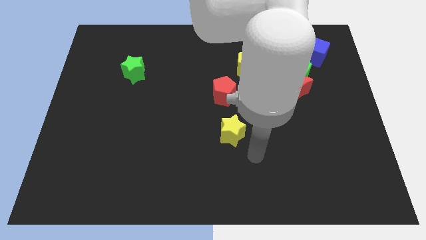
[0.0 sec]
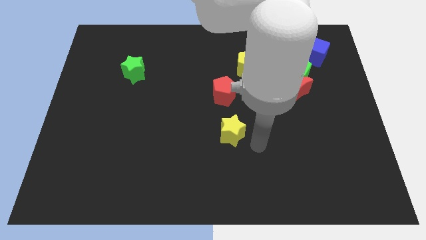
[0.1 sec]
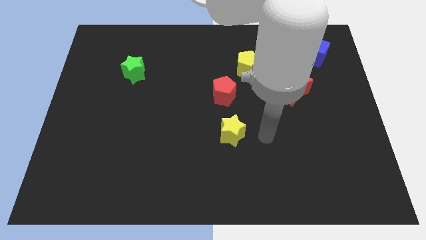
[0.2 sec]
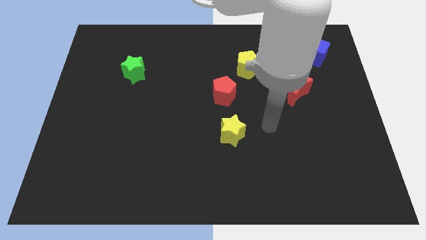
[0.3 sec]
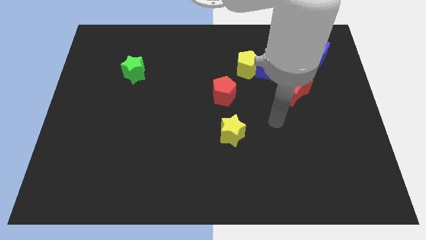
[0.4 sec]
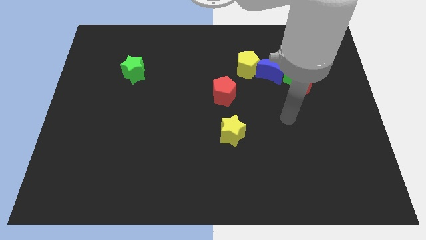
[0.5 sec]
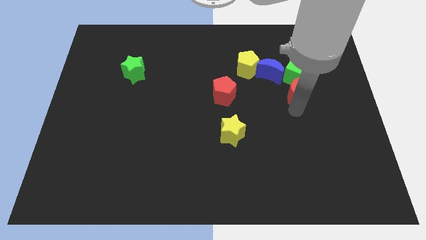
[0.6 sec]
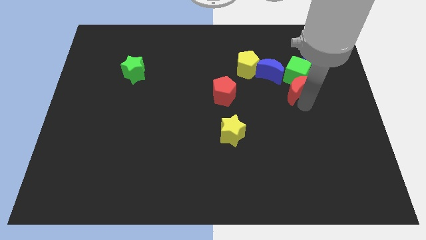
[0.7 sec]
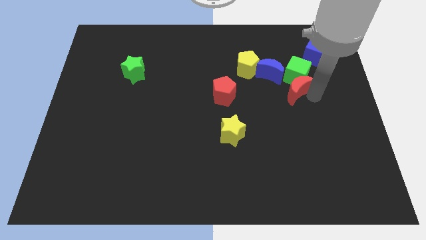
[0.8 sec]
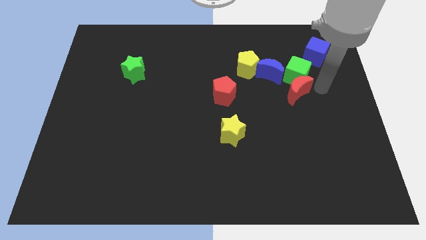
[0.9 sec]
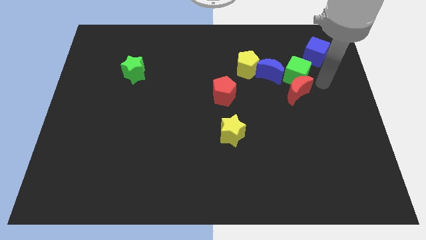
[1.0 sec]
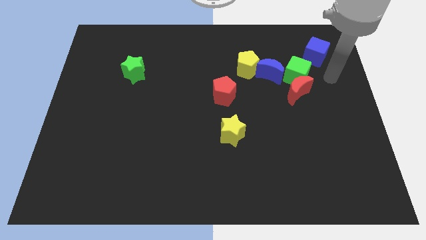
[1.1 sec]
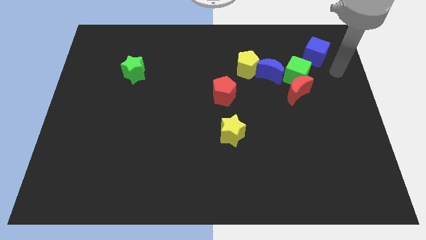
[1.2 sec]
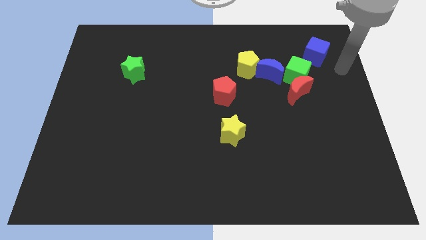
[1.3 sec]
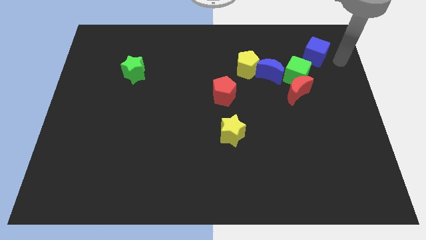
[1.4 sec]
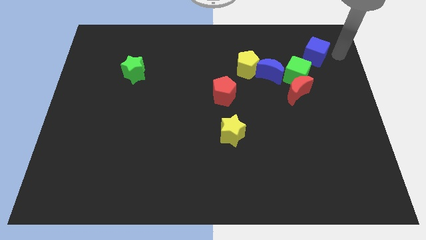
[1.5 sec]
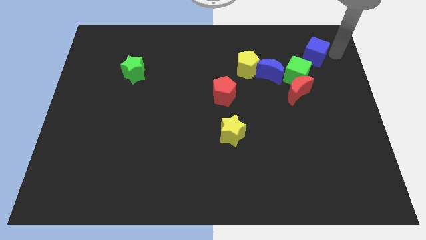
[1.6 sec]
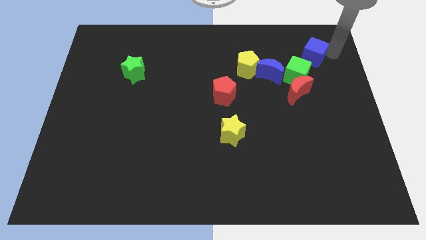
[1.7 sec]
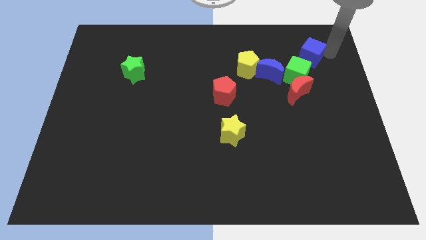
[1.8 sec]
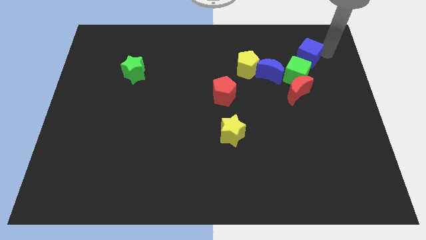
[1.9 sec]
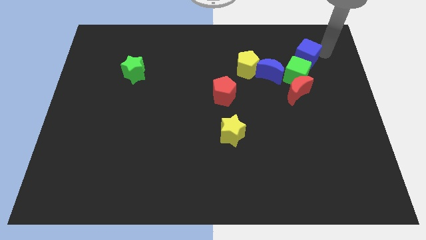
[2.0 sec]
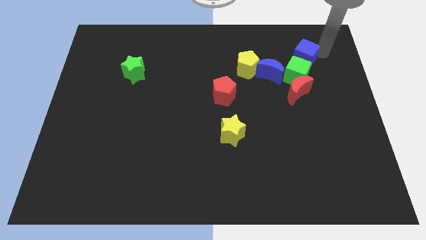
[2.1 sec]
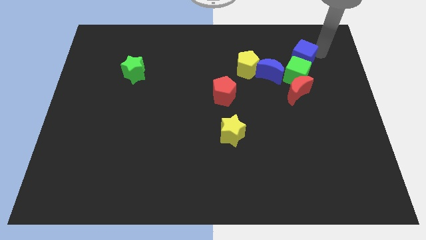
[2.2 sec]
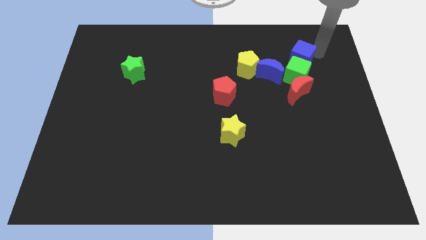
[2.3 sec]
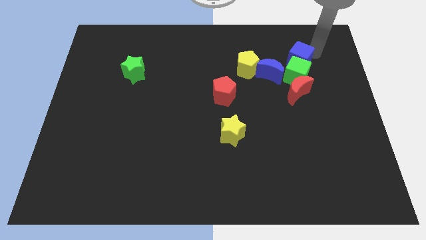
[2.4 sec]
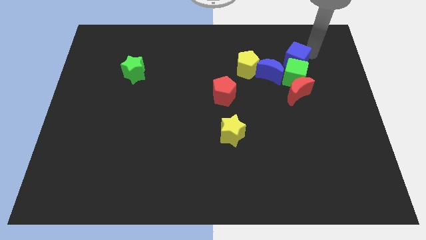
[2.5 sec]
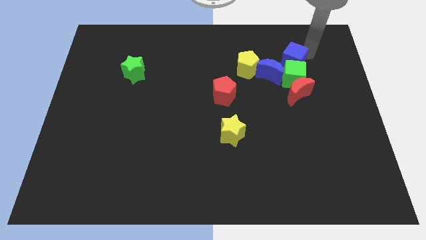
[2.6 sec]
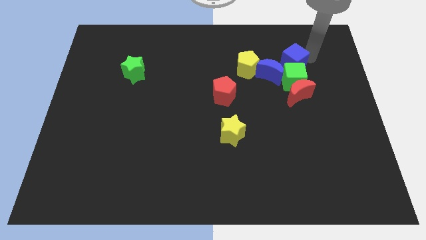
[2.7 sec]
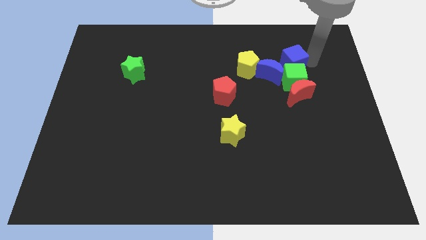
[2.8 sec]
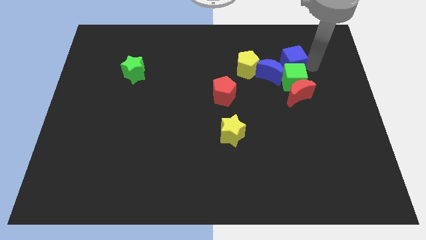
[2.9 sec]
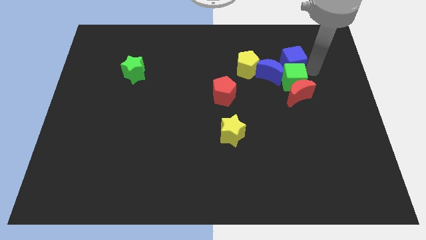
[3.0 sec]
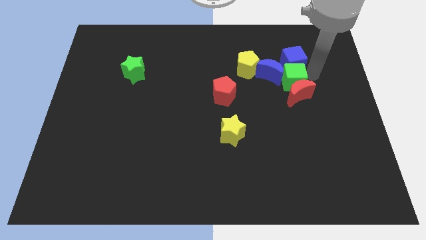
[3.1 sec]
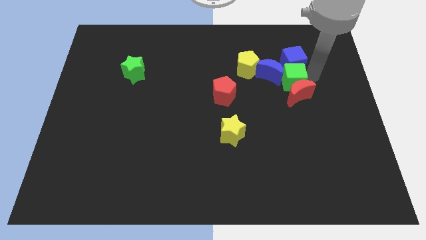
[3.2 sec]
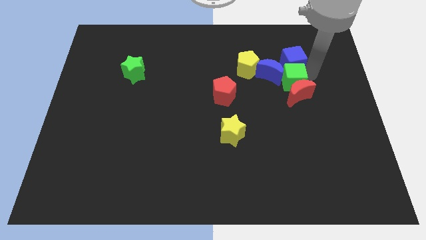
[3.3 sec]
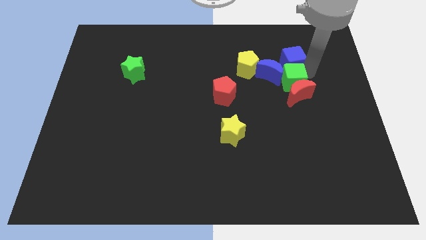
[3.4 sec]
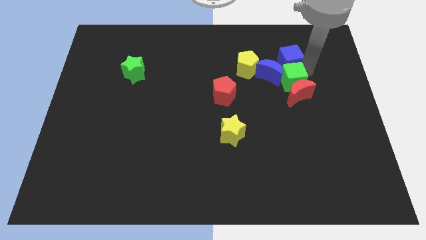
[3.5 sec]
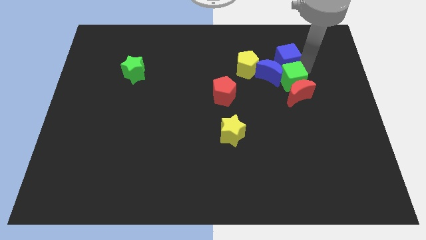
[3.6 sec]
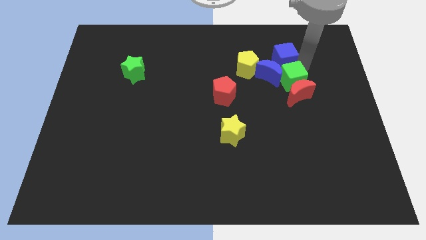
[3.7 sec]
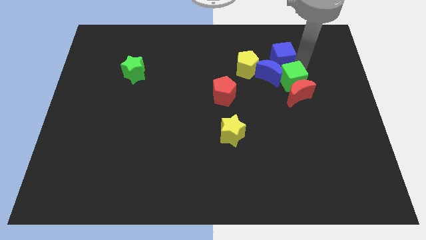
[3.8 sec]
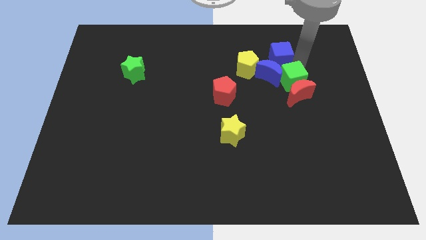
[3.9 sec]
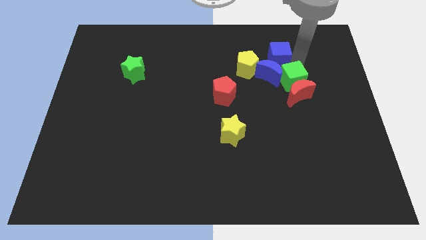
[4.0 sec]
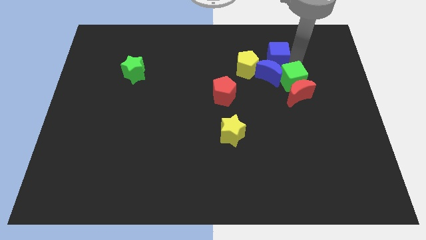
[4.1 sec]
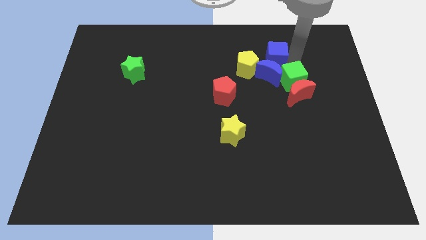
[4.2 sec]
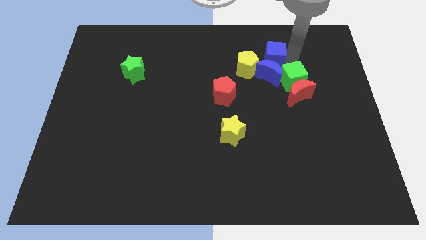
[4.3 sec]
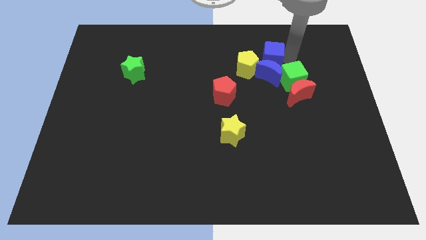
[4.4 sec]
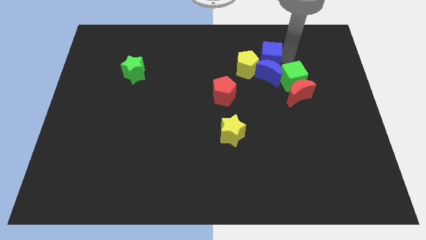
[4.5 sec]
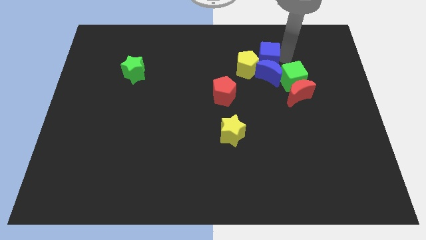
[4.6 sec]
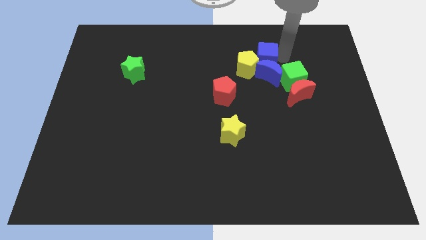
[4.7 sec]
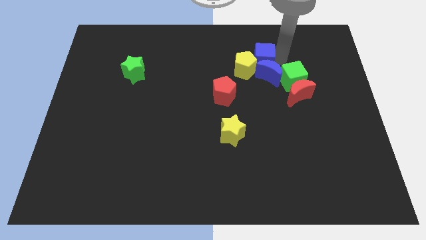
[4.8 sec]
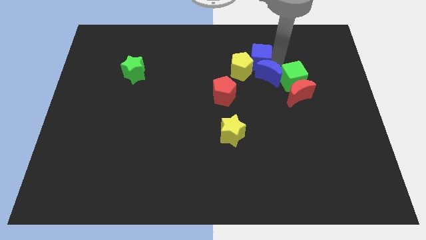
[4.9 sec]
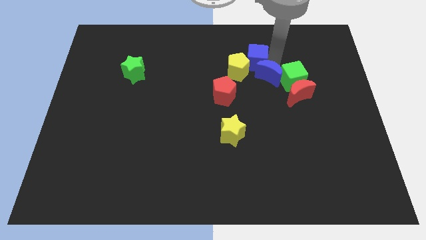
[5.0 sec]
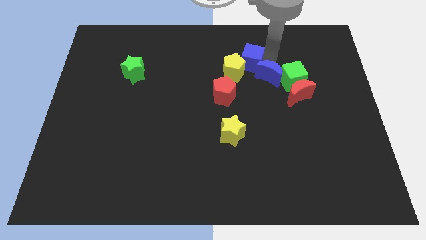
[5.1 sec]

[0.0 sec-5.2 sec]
slide the blue cube just left of the blue moon

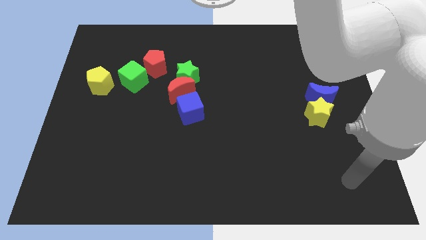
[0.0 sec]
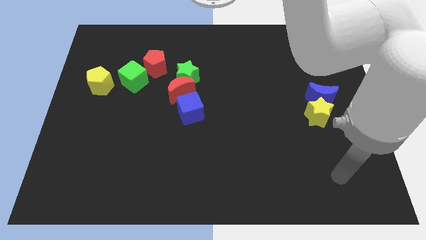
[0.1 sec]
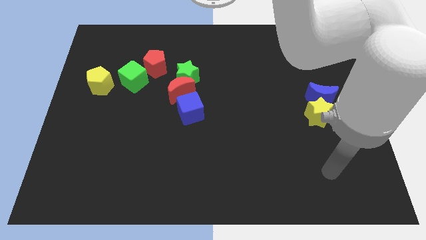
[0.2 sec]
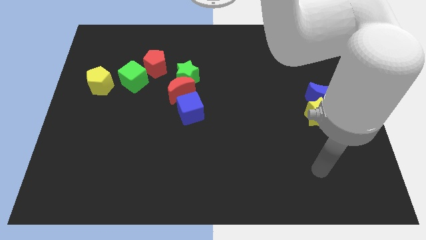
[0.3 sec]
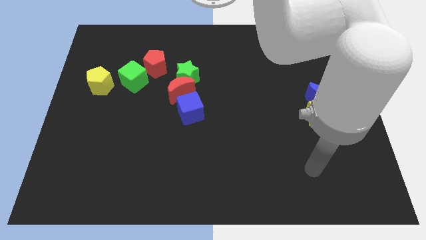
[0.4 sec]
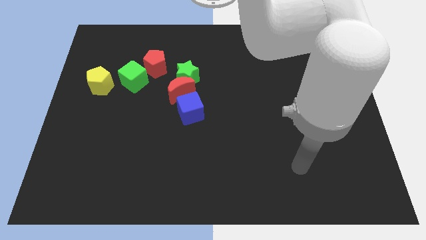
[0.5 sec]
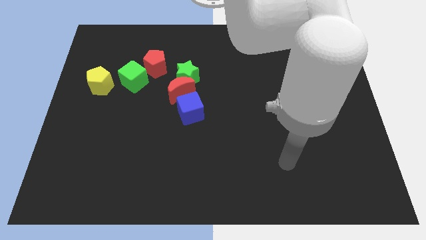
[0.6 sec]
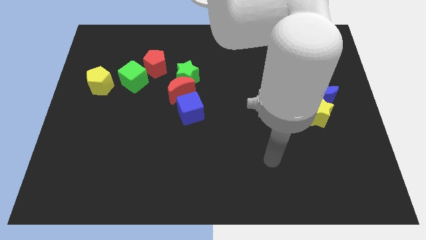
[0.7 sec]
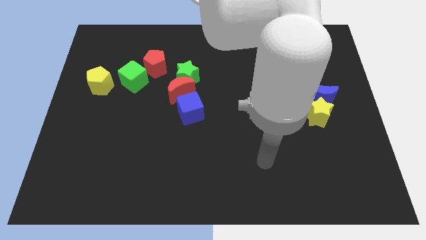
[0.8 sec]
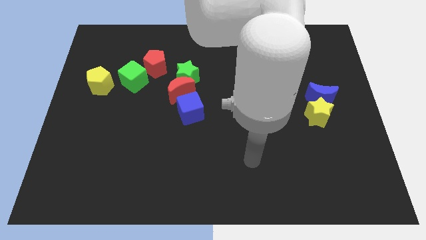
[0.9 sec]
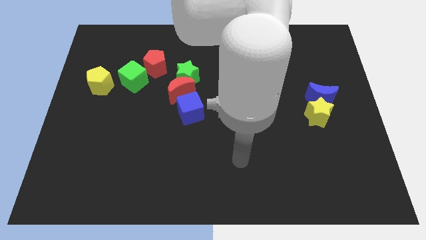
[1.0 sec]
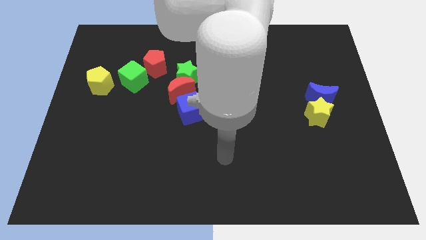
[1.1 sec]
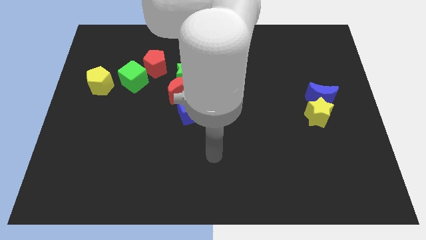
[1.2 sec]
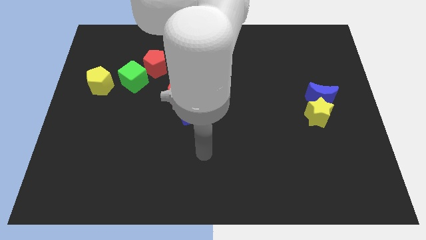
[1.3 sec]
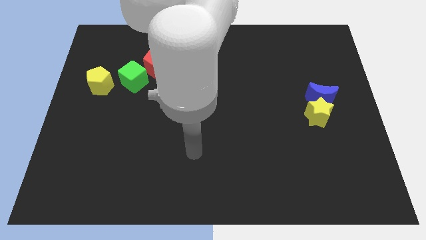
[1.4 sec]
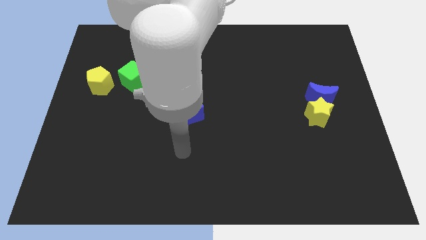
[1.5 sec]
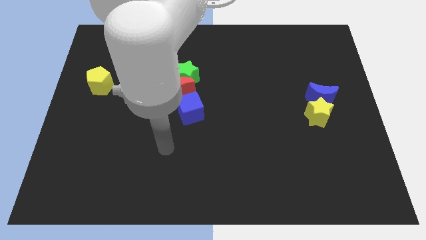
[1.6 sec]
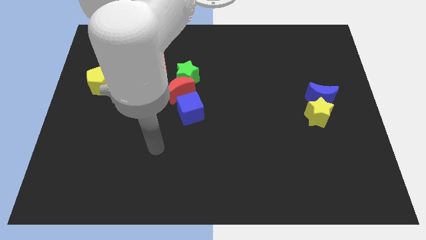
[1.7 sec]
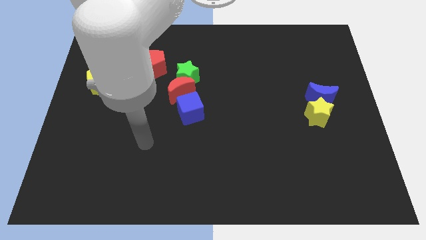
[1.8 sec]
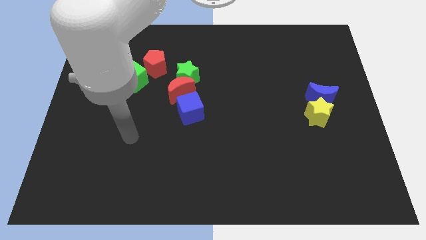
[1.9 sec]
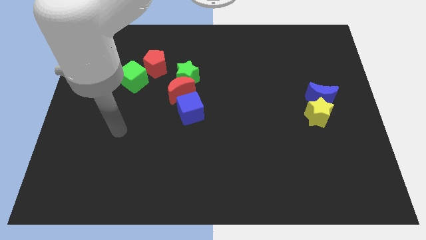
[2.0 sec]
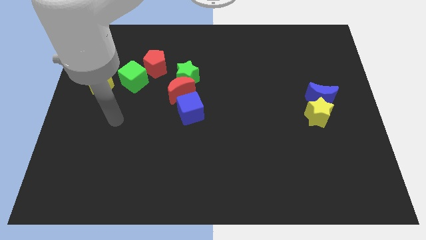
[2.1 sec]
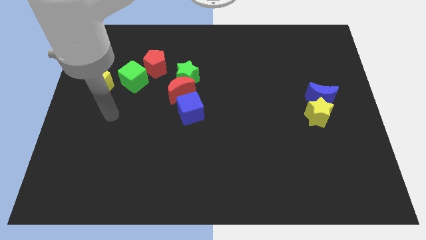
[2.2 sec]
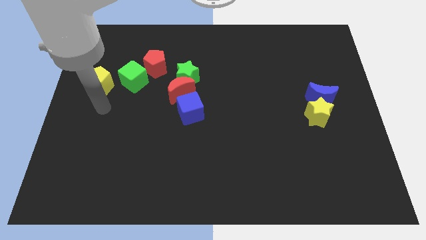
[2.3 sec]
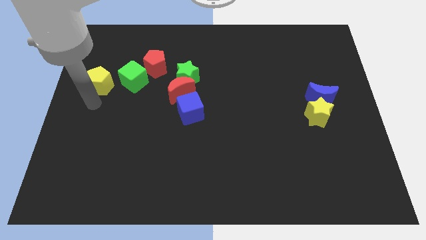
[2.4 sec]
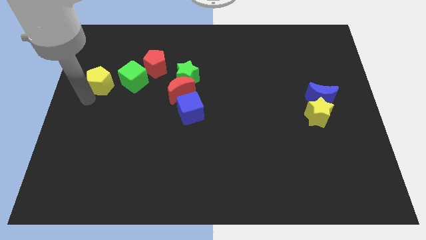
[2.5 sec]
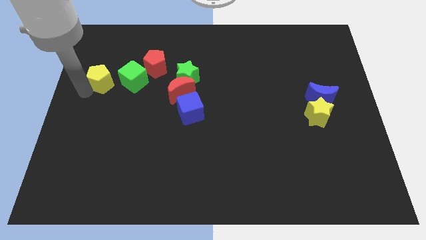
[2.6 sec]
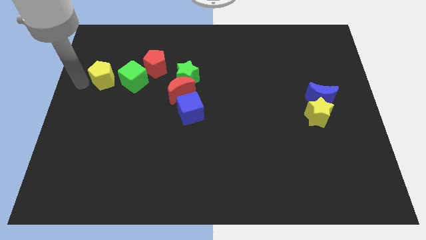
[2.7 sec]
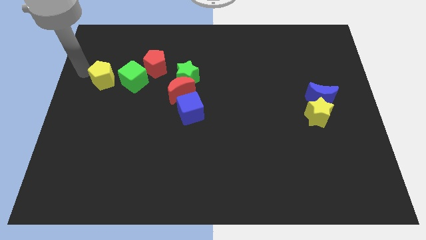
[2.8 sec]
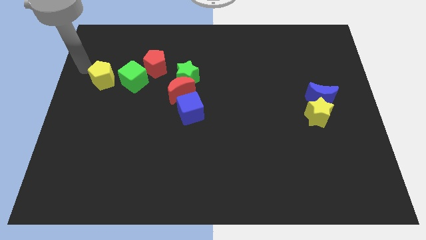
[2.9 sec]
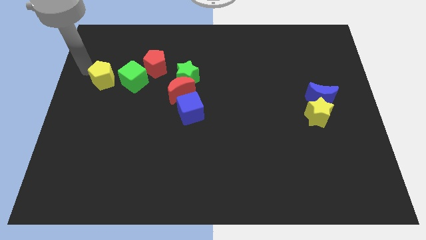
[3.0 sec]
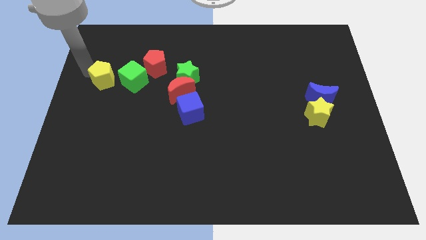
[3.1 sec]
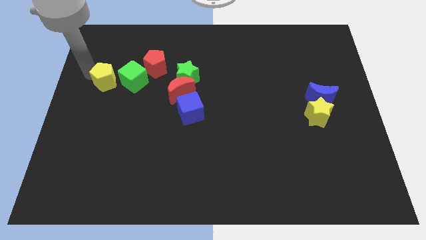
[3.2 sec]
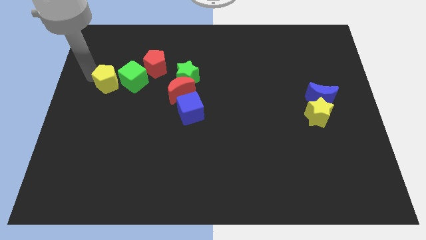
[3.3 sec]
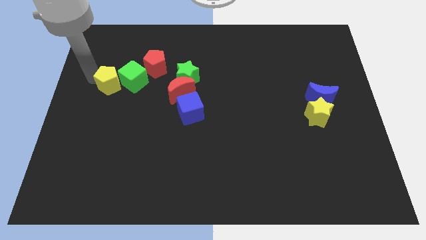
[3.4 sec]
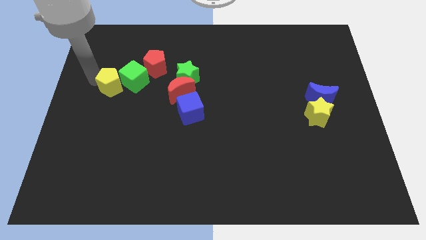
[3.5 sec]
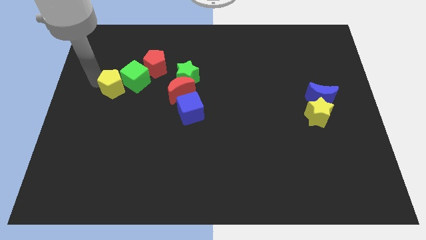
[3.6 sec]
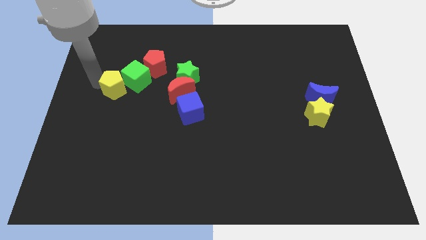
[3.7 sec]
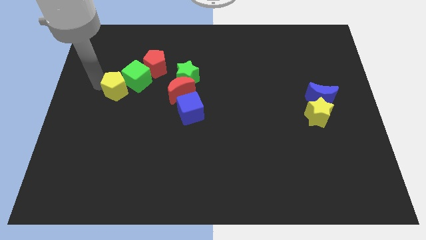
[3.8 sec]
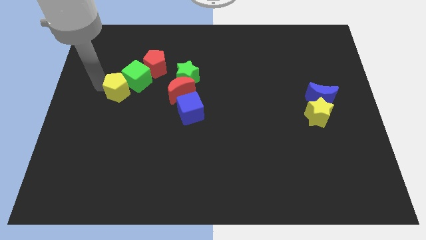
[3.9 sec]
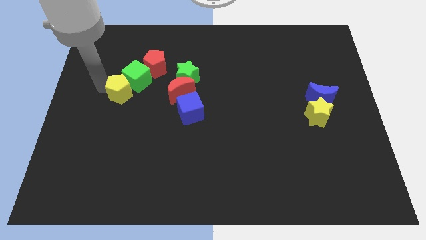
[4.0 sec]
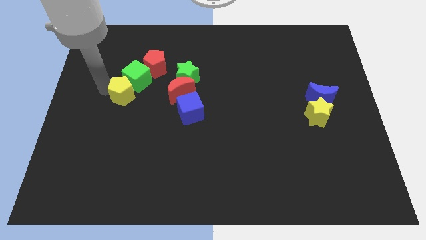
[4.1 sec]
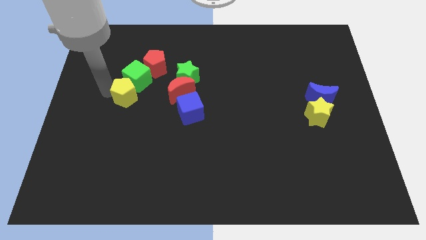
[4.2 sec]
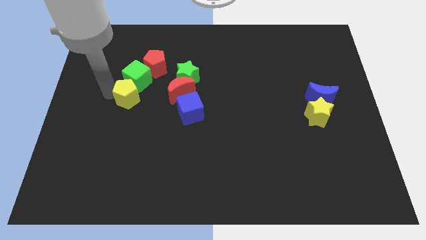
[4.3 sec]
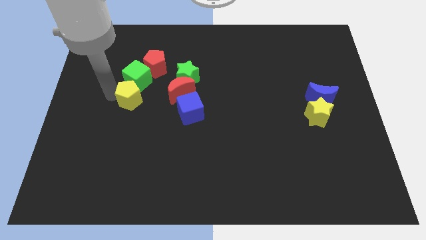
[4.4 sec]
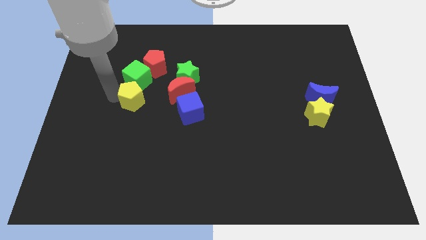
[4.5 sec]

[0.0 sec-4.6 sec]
move the yellow pentagon to the bottom right side of the green cube
